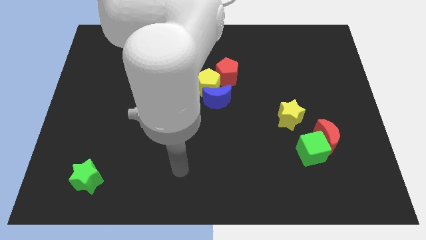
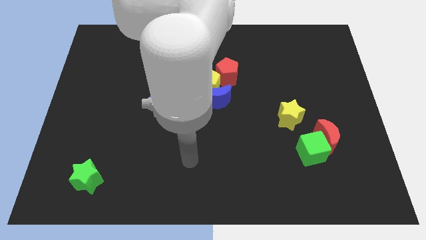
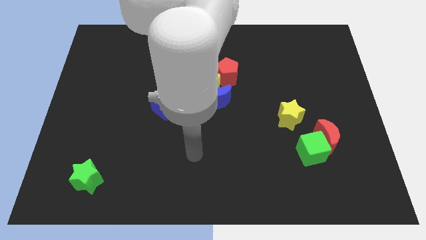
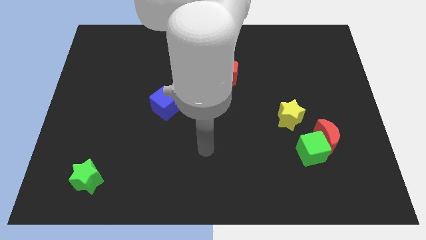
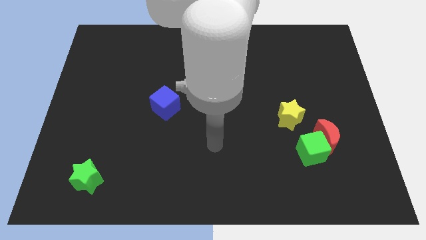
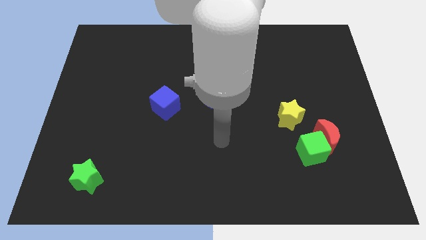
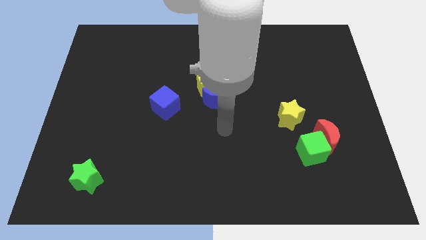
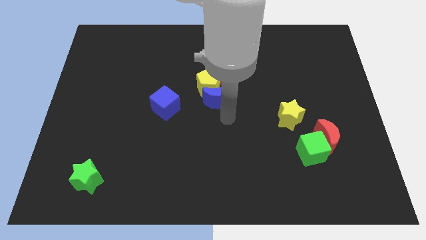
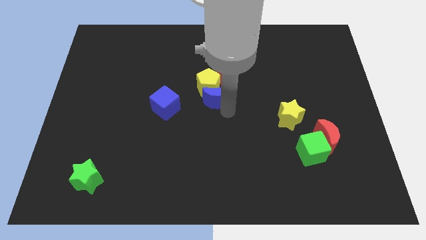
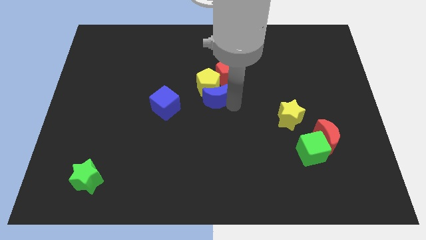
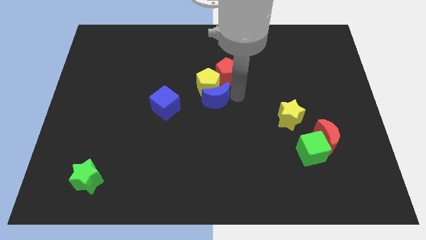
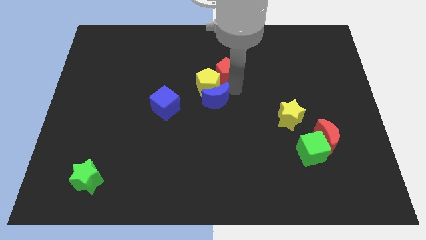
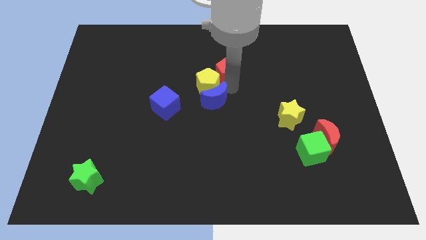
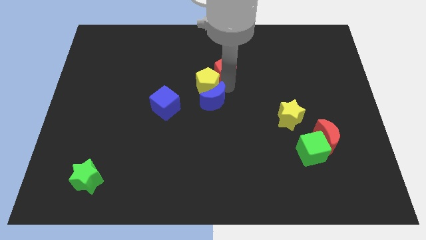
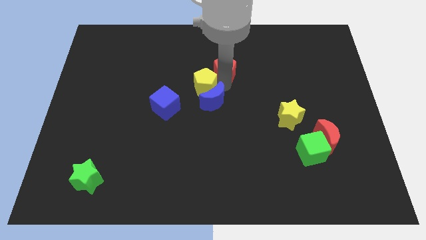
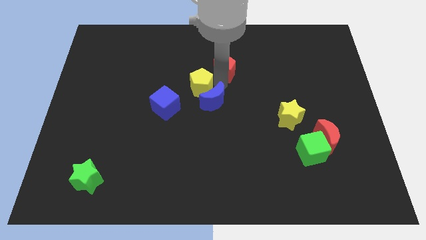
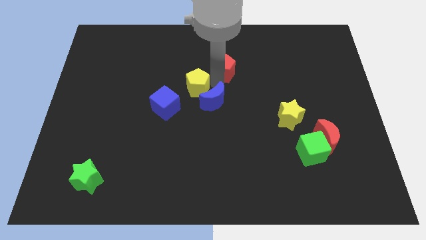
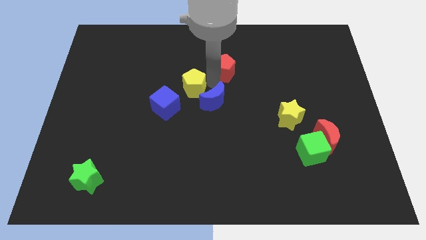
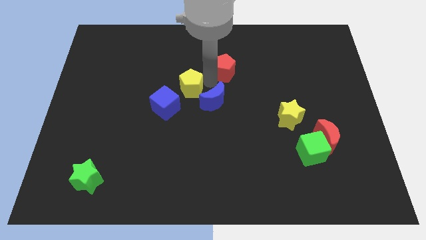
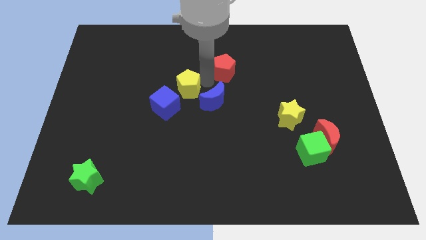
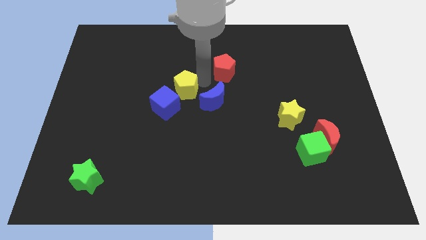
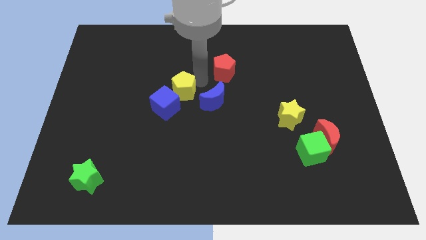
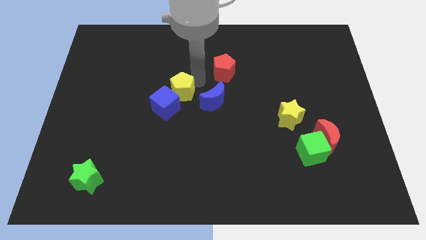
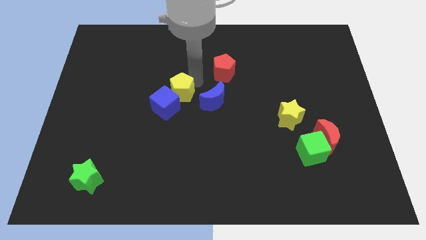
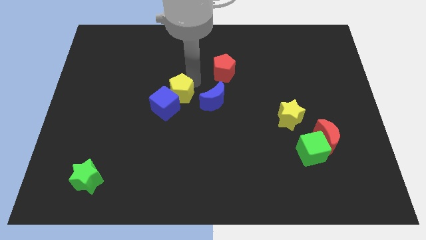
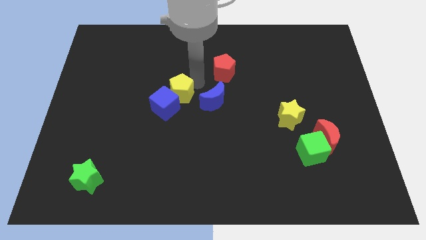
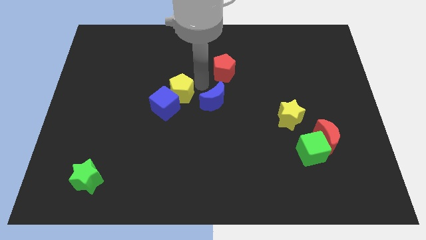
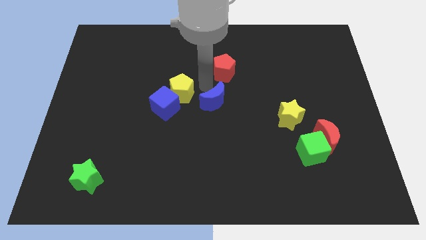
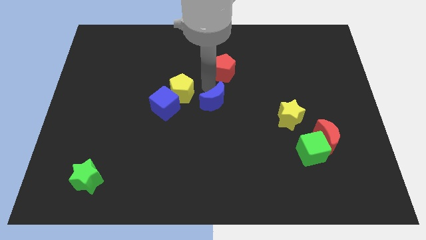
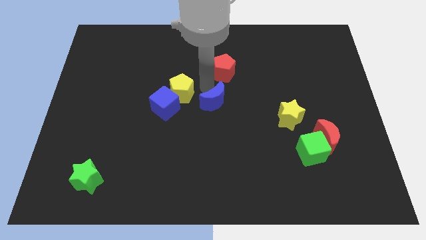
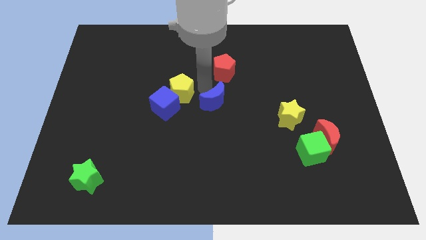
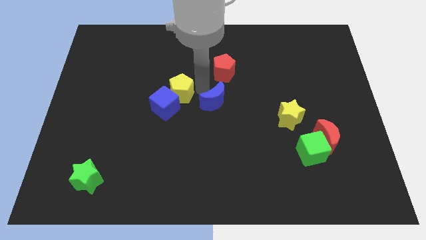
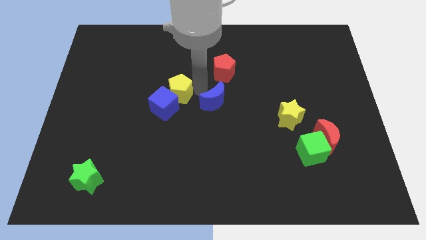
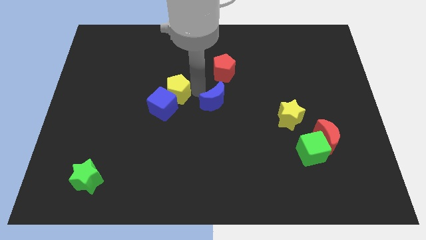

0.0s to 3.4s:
separate the yellow pentagon from the blue moon and red pentagon

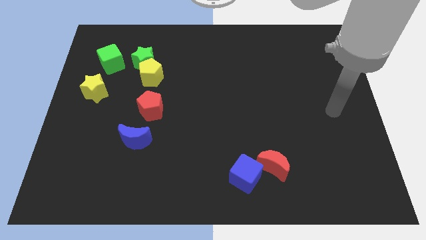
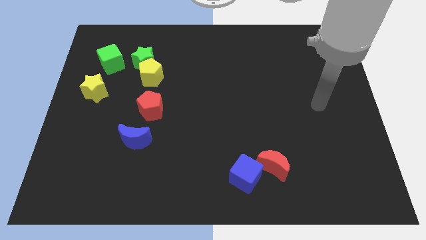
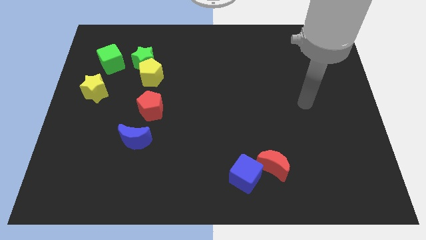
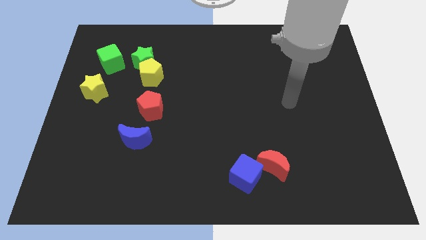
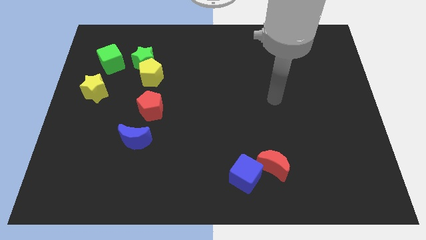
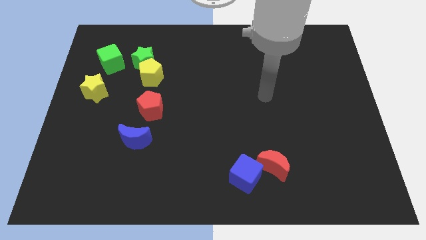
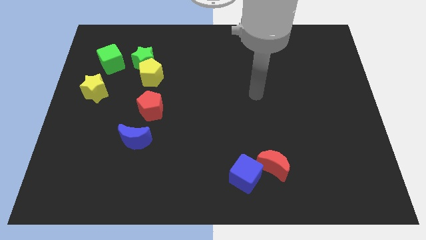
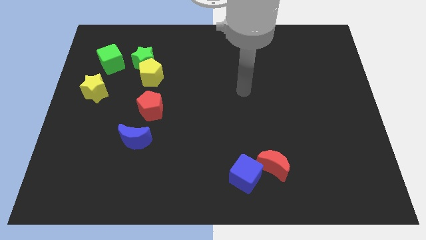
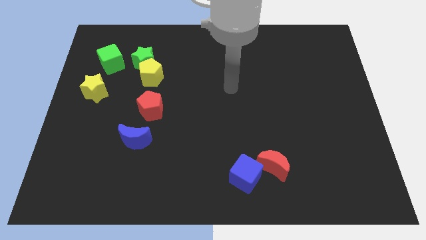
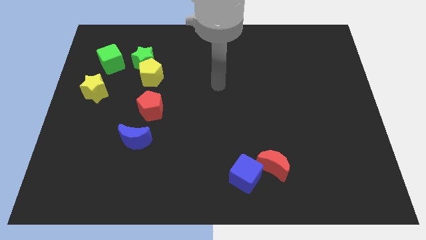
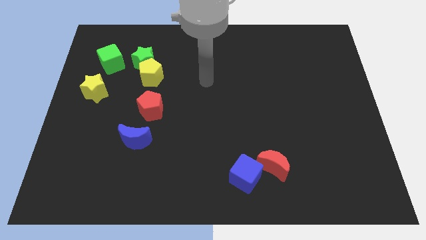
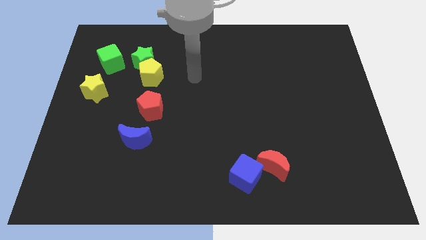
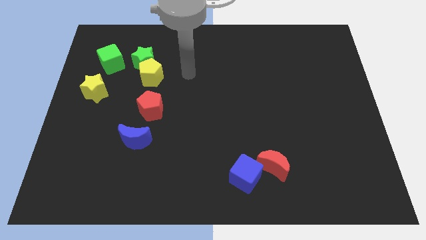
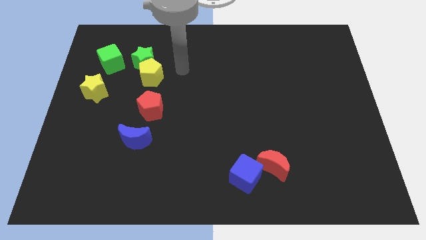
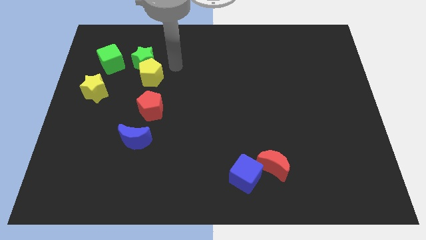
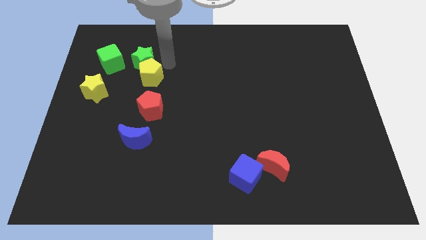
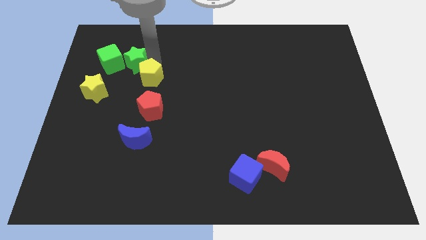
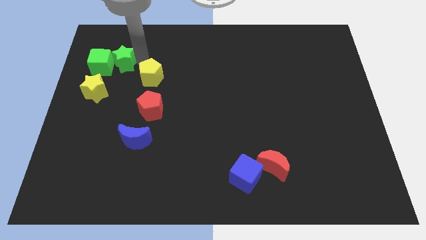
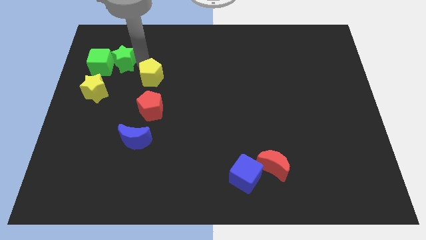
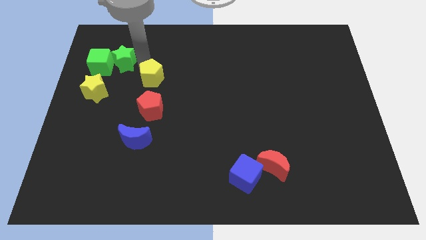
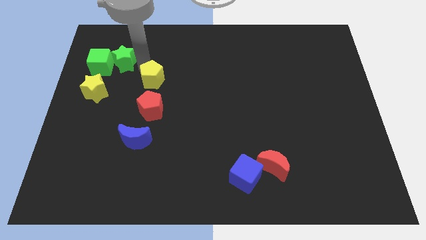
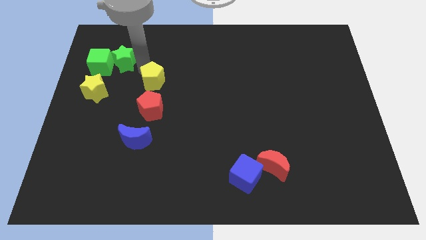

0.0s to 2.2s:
separate the yellow pentagon from the green star

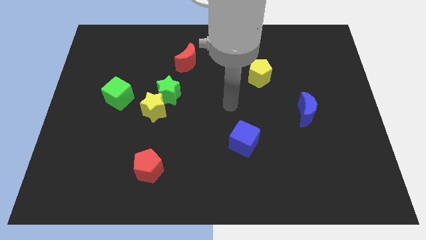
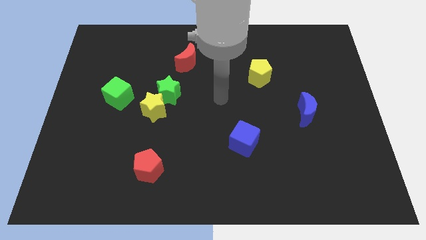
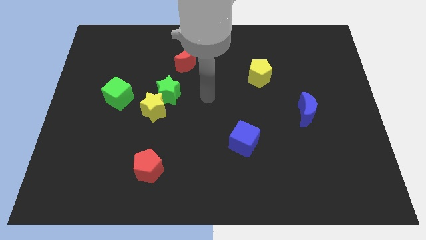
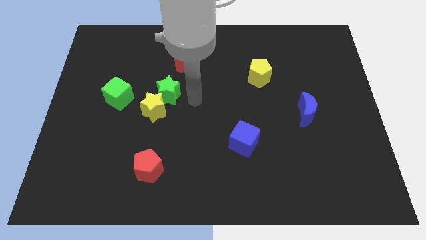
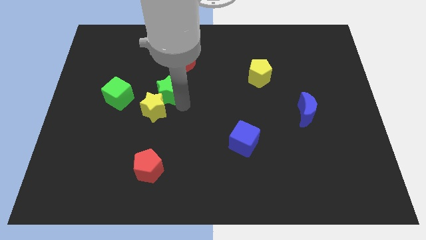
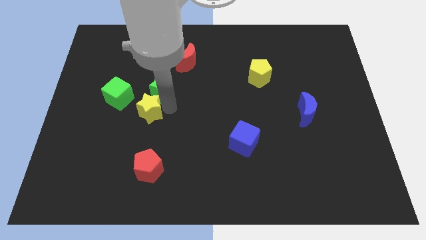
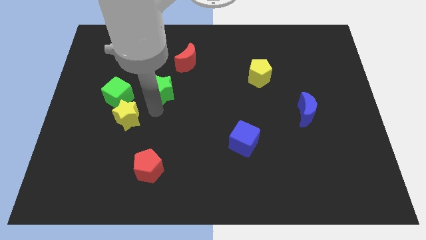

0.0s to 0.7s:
move the green star away from the yellow star

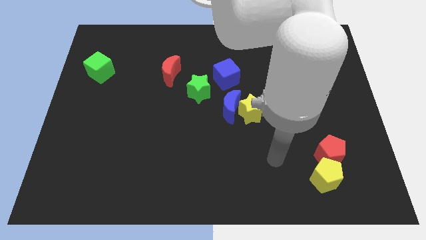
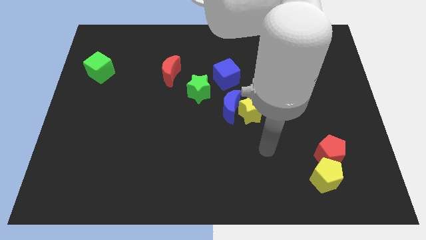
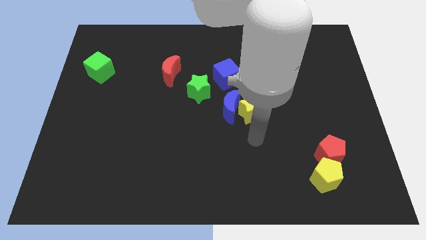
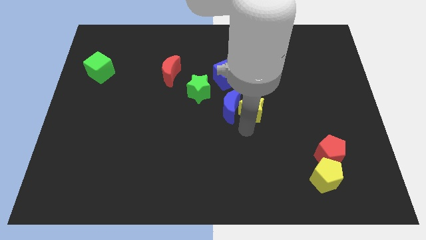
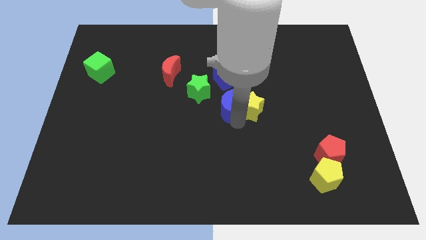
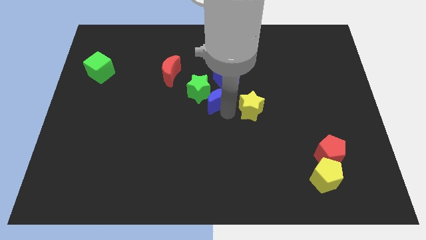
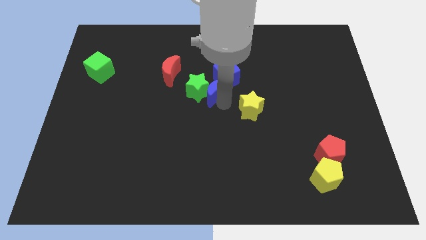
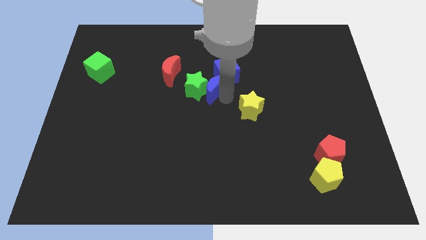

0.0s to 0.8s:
move the yellow star away from the blue moon

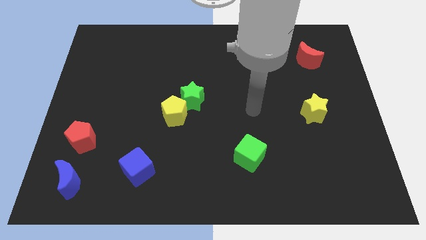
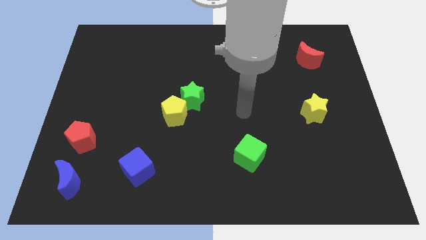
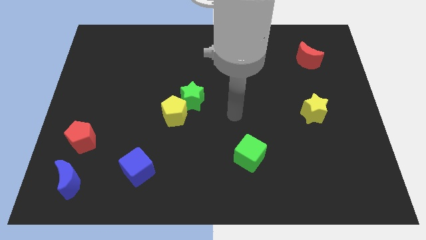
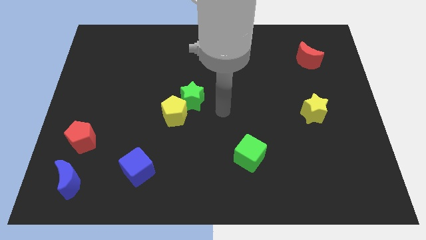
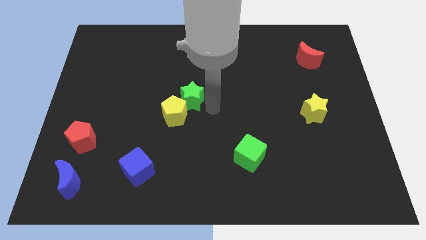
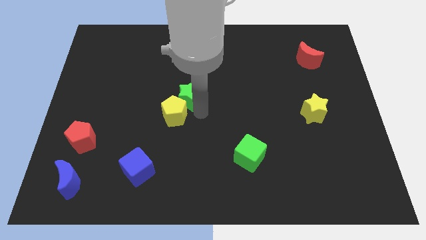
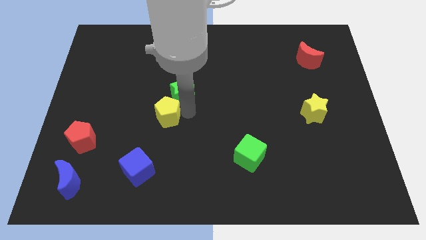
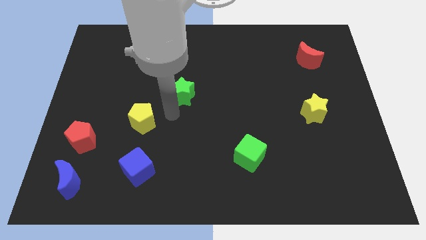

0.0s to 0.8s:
move the green star away from the yellow pentagon

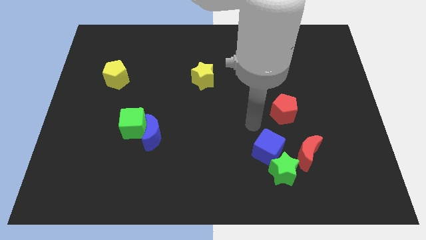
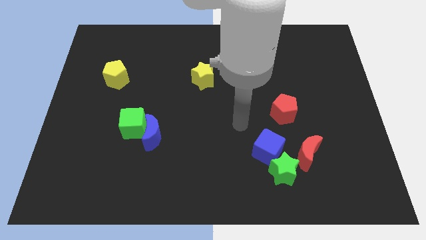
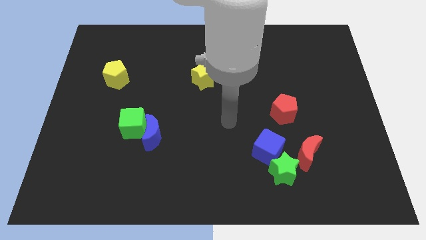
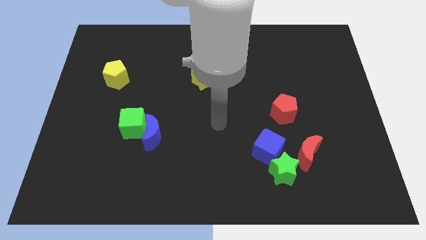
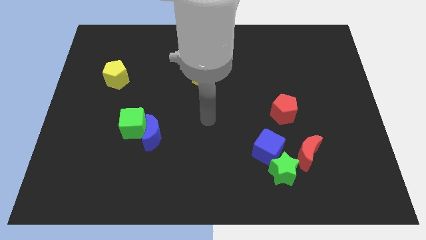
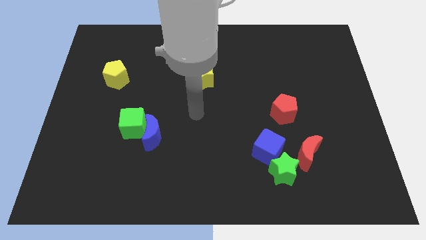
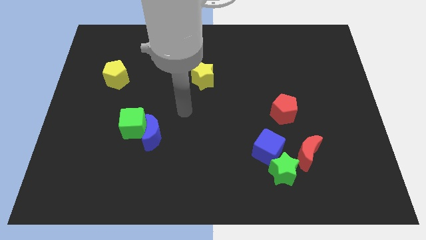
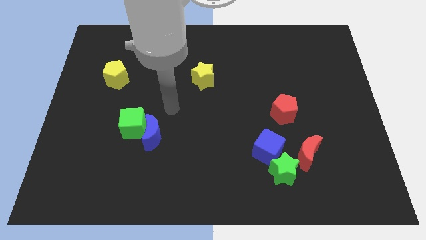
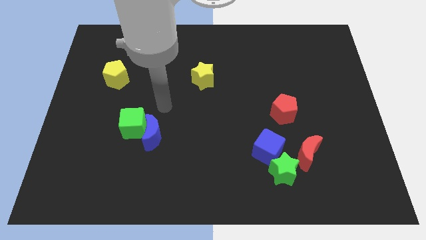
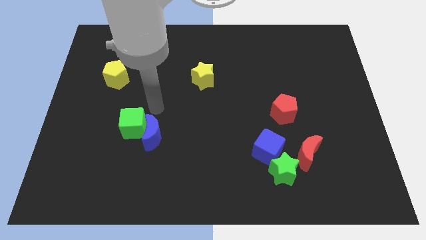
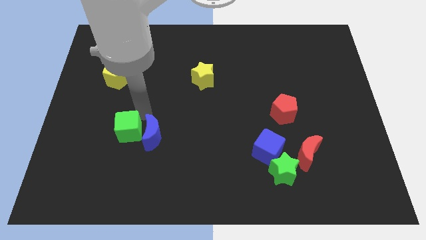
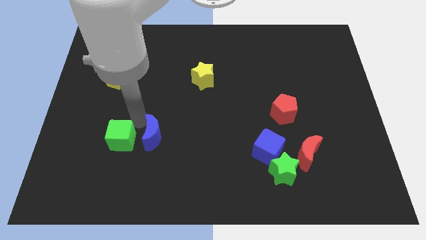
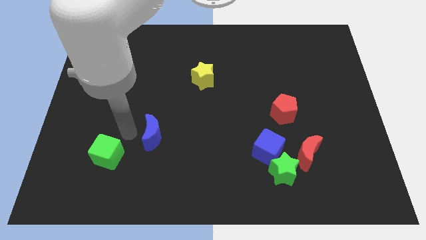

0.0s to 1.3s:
move the blue moon away from the green cube

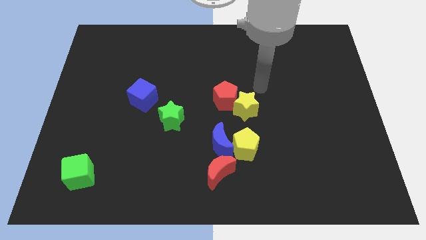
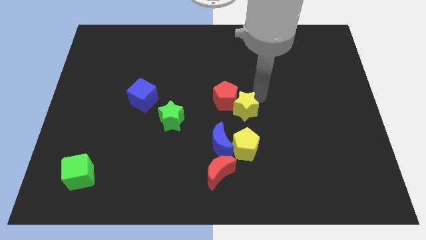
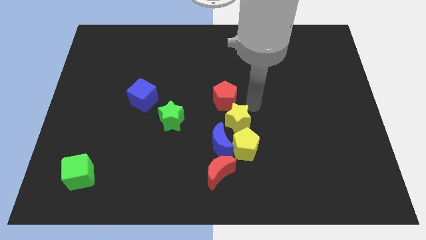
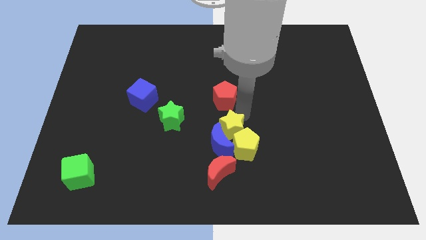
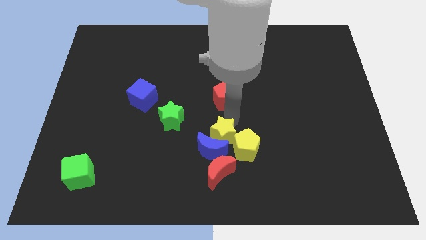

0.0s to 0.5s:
pull the red pentagon apart from the yellow star
